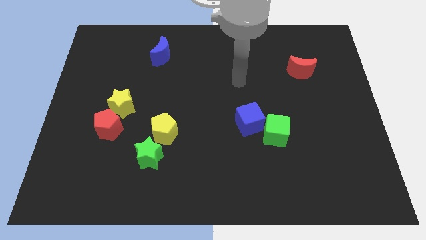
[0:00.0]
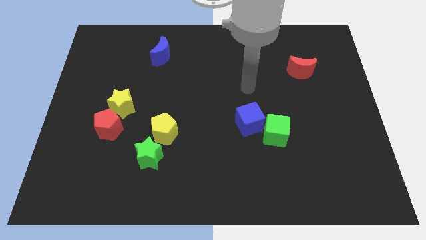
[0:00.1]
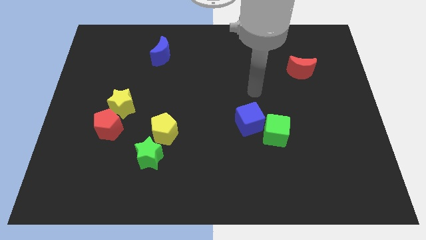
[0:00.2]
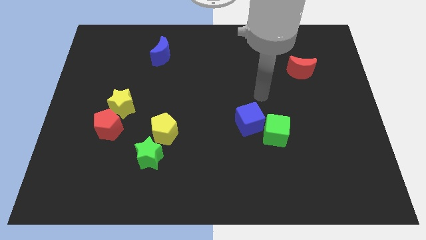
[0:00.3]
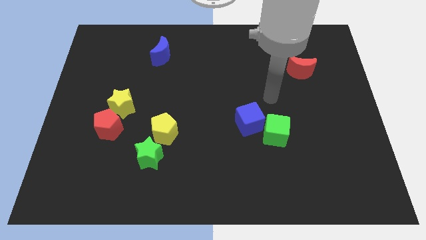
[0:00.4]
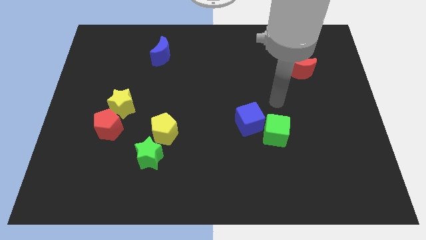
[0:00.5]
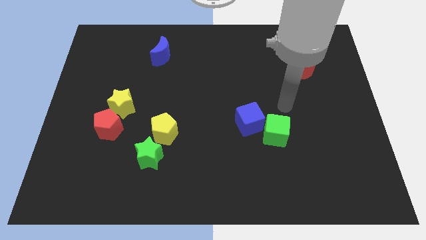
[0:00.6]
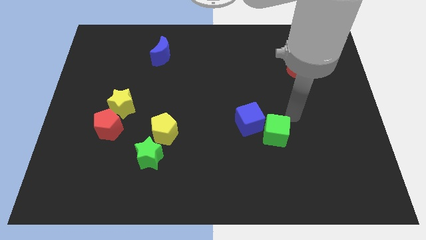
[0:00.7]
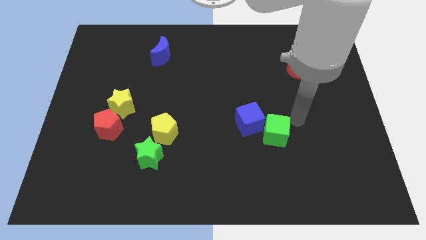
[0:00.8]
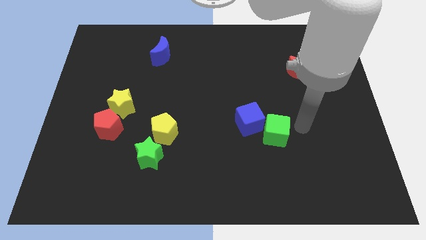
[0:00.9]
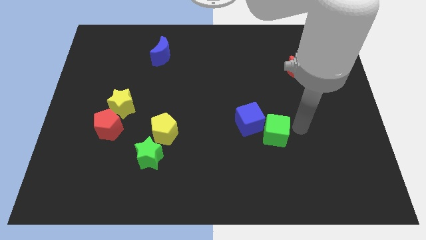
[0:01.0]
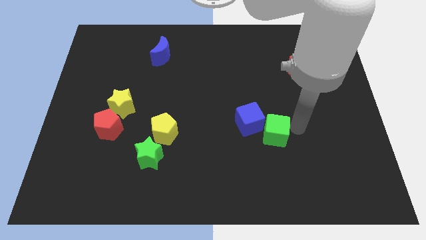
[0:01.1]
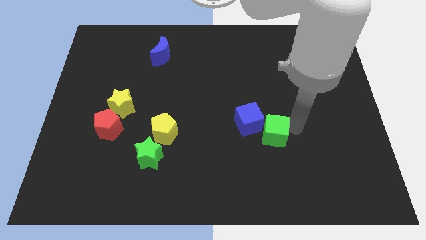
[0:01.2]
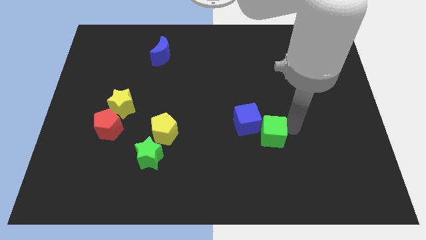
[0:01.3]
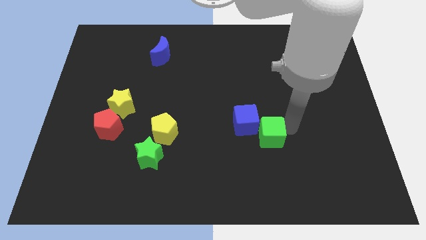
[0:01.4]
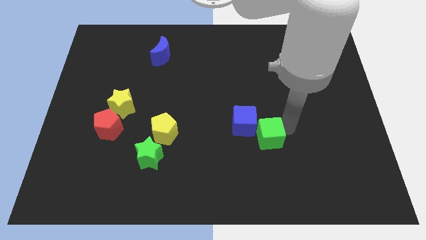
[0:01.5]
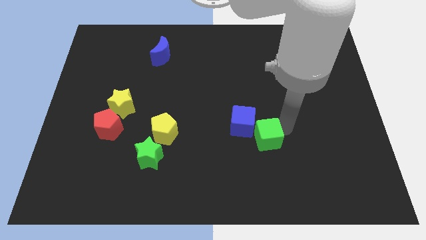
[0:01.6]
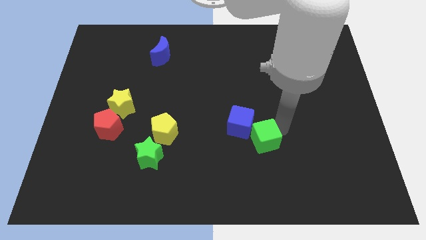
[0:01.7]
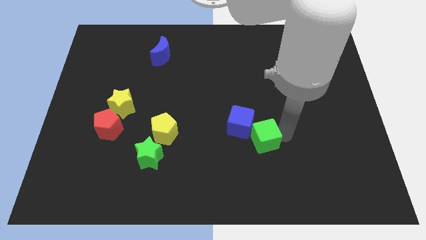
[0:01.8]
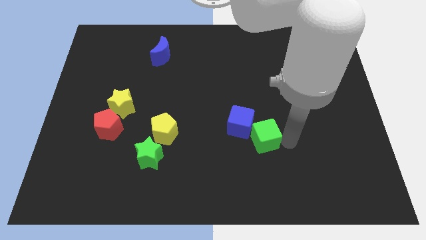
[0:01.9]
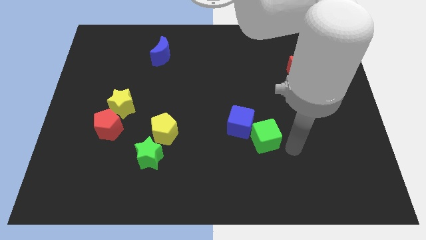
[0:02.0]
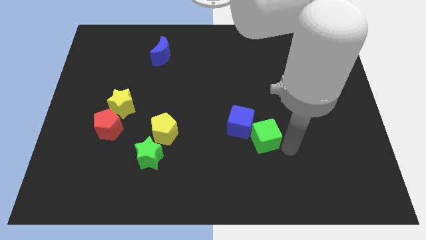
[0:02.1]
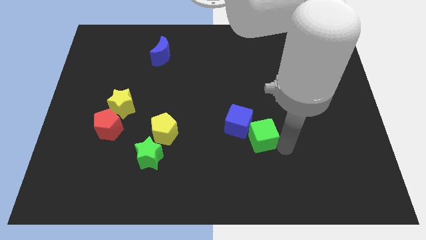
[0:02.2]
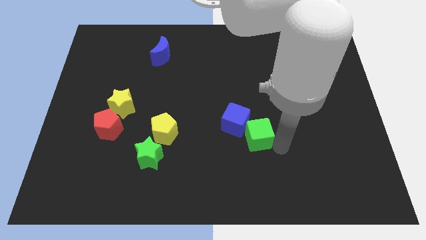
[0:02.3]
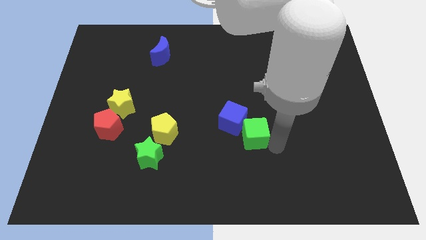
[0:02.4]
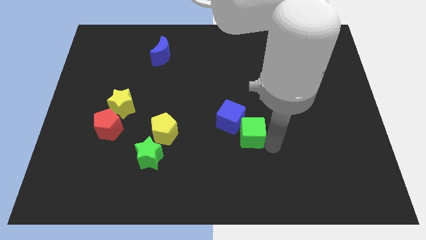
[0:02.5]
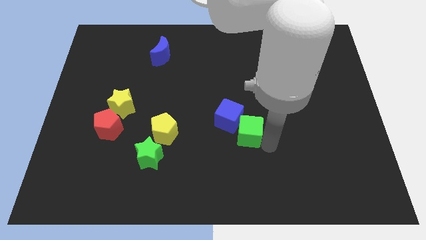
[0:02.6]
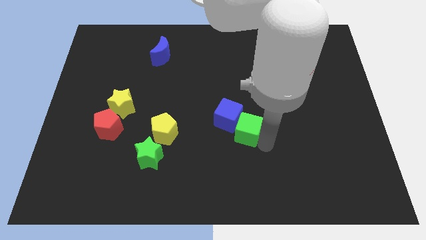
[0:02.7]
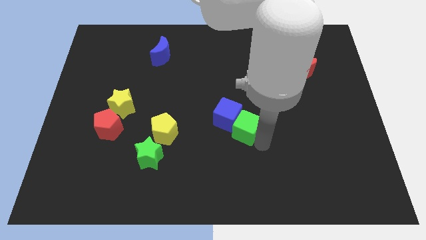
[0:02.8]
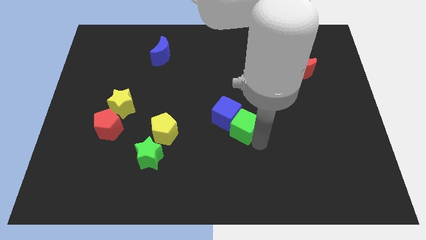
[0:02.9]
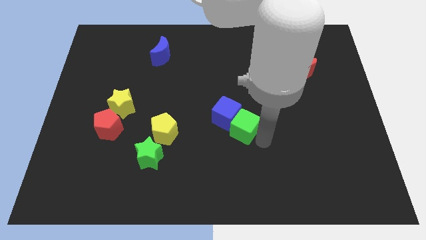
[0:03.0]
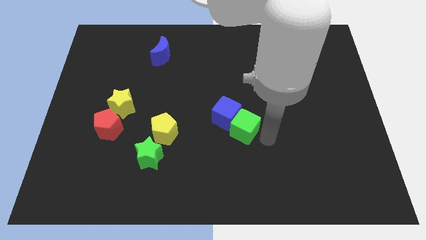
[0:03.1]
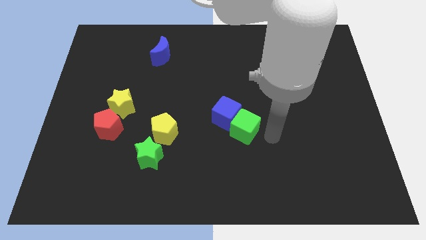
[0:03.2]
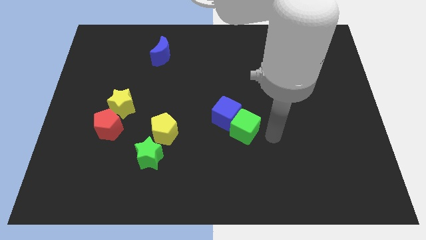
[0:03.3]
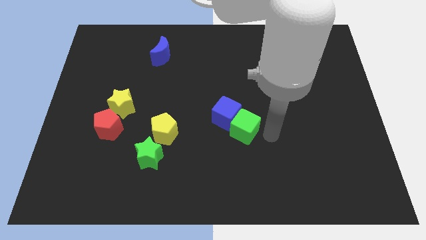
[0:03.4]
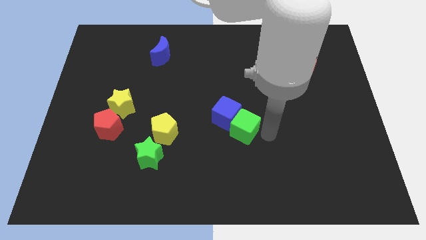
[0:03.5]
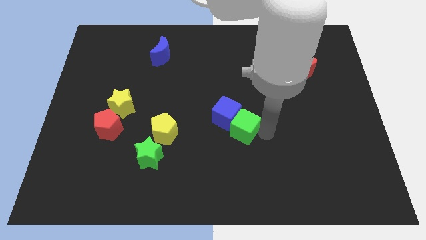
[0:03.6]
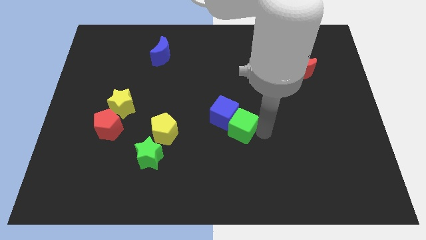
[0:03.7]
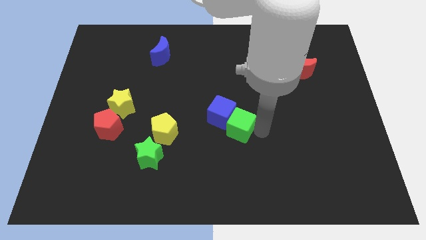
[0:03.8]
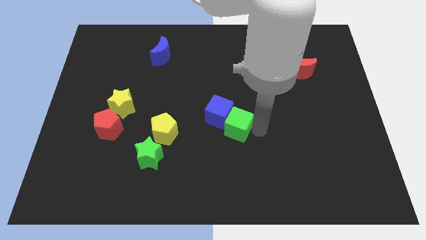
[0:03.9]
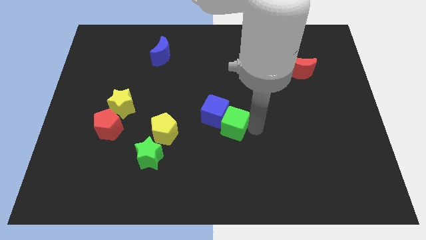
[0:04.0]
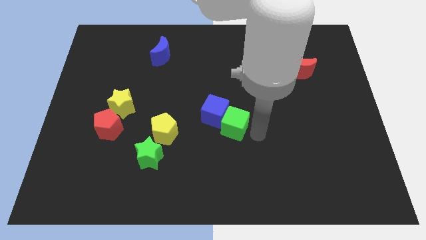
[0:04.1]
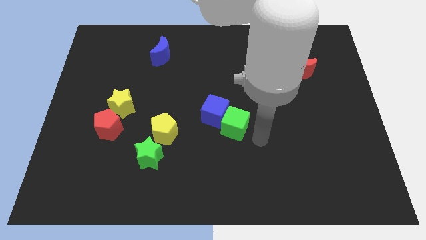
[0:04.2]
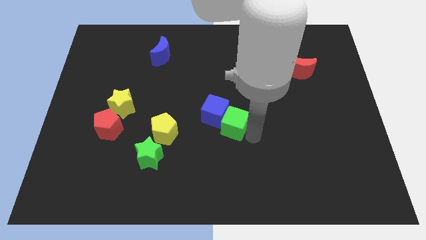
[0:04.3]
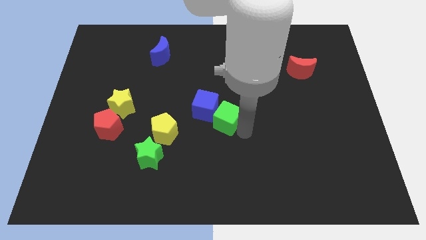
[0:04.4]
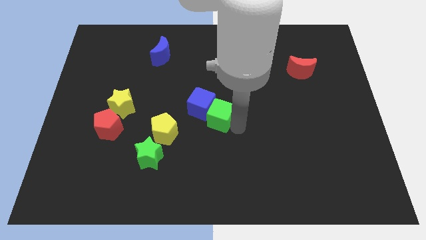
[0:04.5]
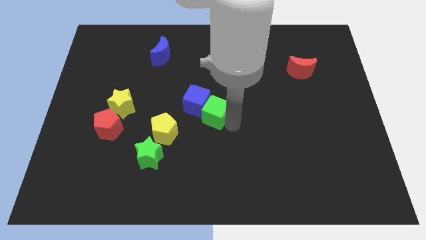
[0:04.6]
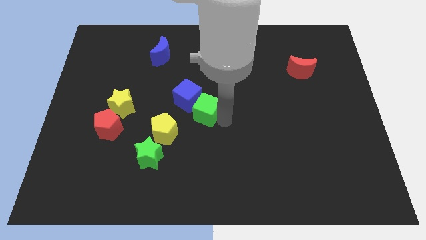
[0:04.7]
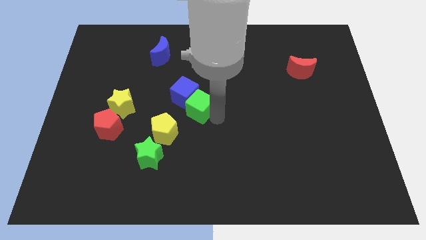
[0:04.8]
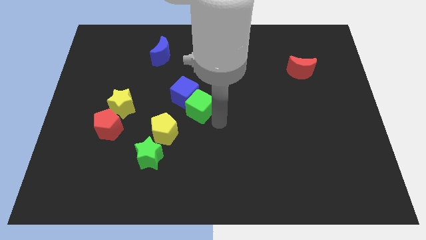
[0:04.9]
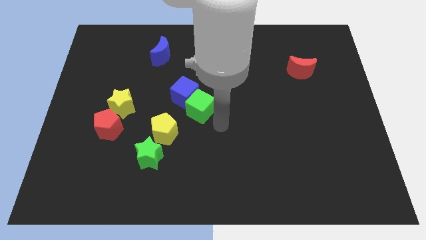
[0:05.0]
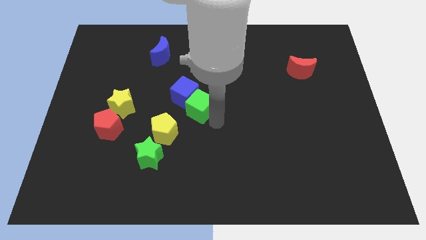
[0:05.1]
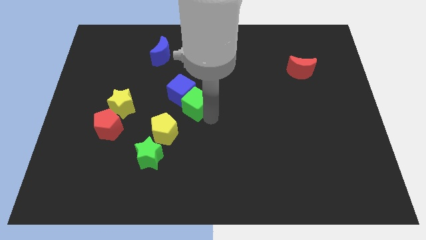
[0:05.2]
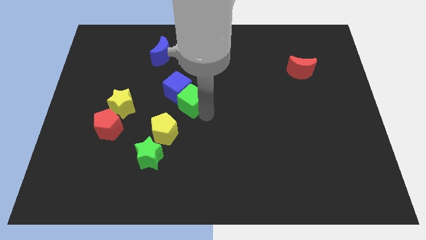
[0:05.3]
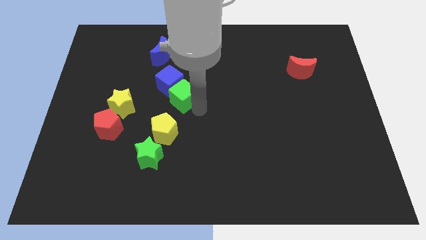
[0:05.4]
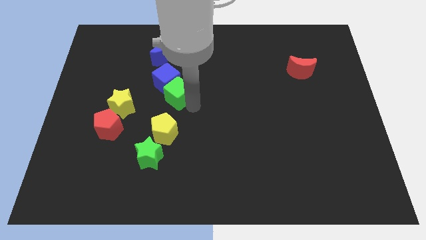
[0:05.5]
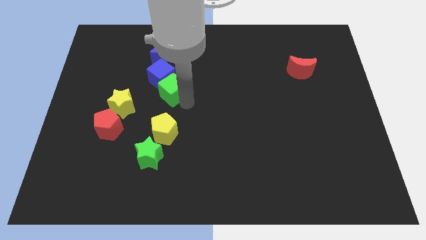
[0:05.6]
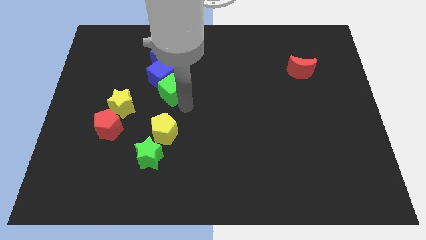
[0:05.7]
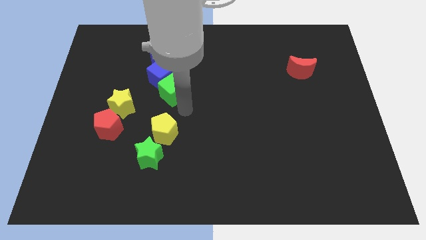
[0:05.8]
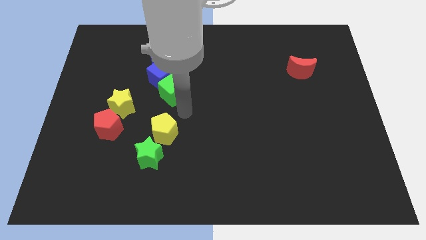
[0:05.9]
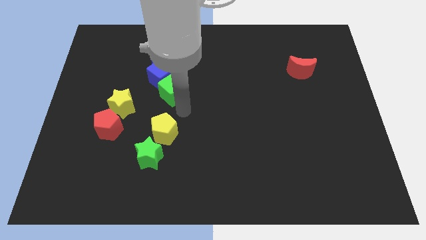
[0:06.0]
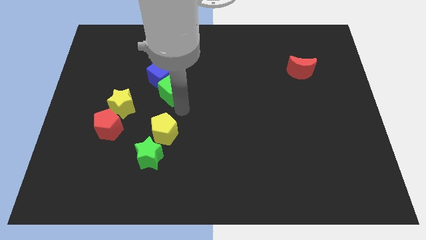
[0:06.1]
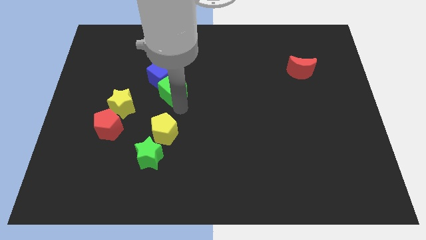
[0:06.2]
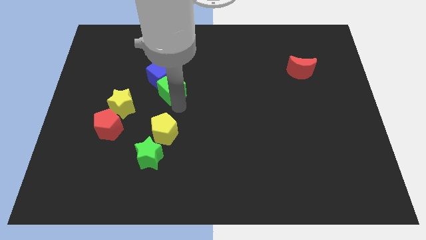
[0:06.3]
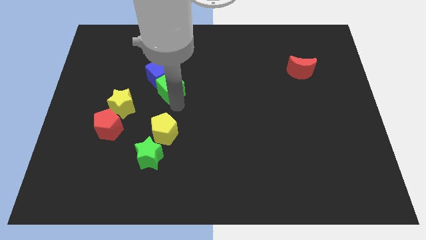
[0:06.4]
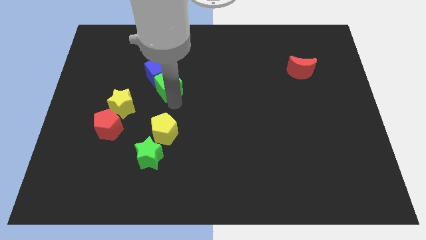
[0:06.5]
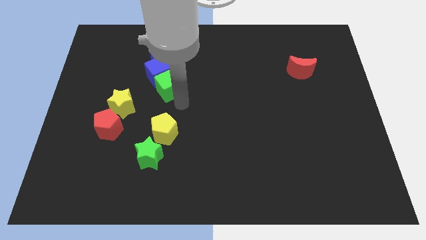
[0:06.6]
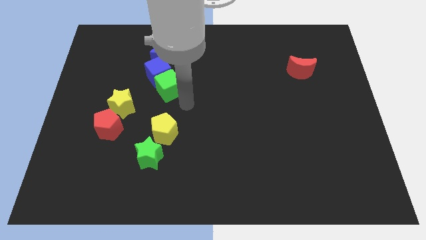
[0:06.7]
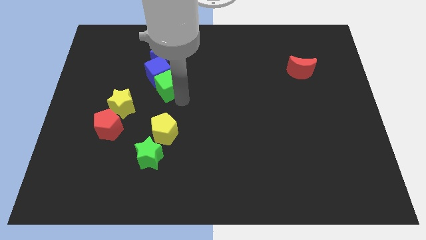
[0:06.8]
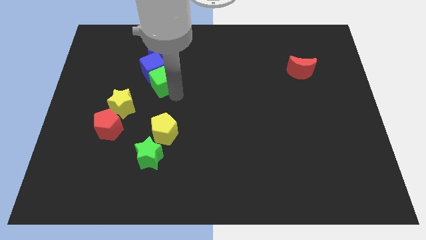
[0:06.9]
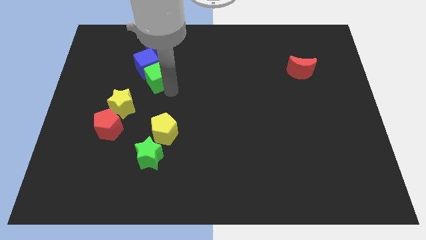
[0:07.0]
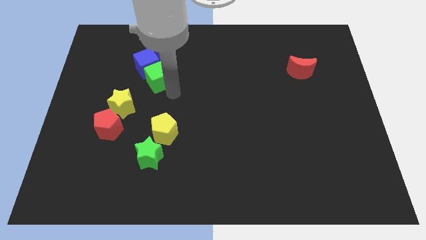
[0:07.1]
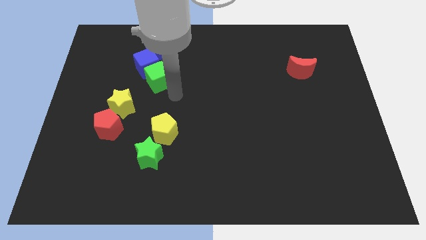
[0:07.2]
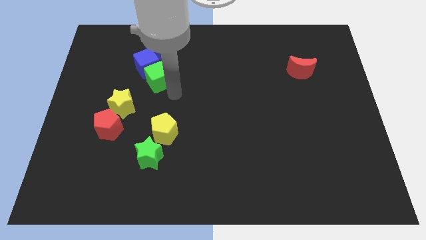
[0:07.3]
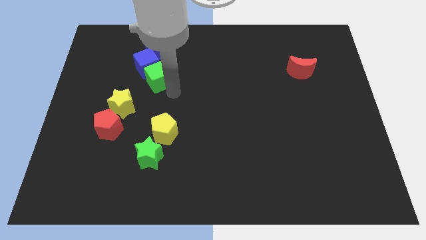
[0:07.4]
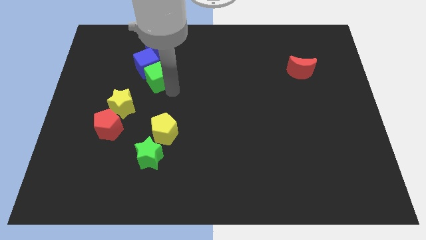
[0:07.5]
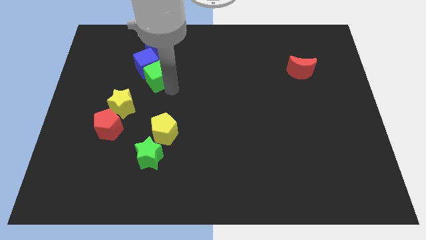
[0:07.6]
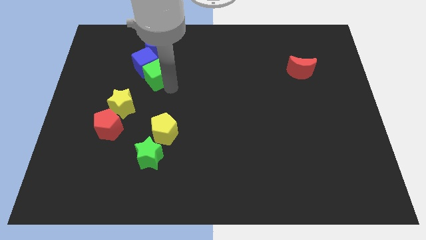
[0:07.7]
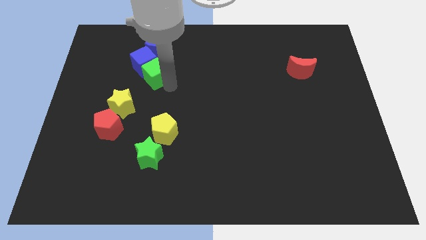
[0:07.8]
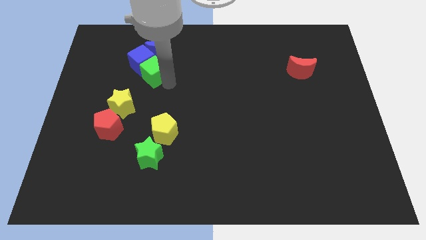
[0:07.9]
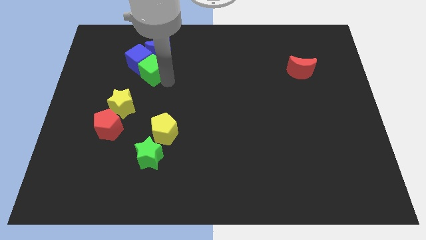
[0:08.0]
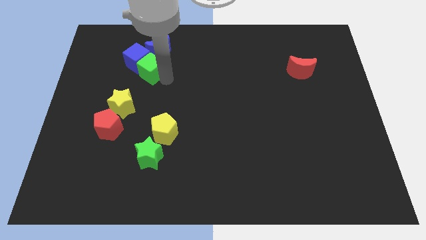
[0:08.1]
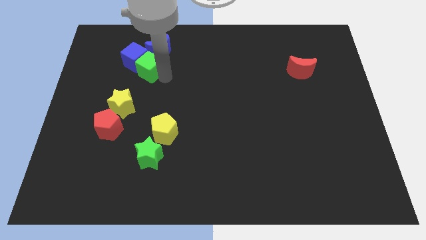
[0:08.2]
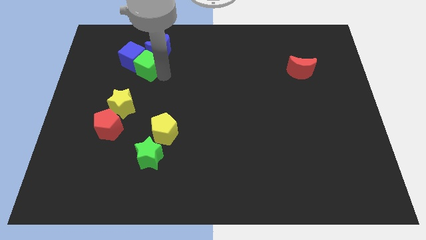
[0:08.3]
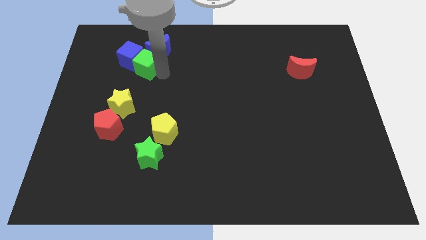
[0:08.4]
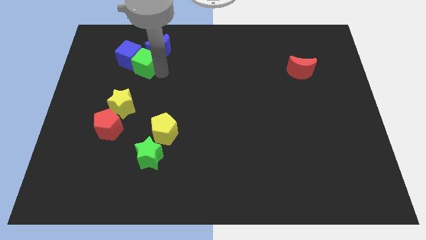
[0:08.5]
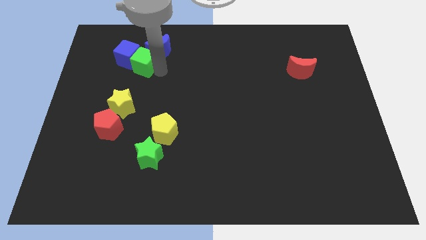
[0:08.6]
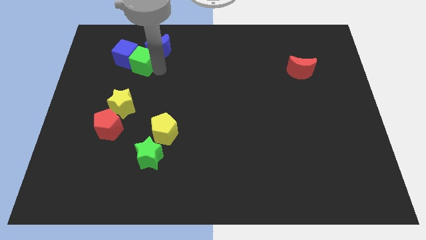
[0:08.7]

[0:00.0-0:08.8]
move the green cube just left of the blue moon
